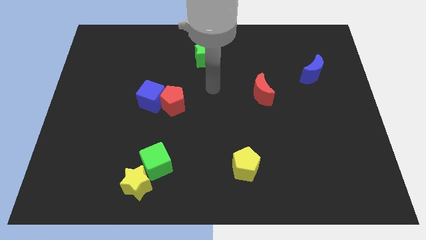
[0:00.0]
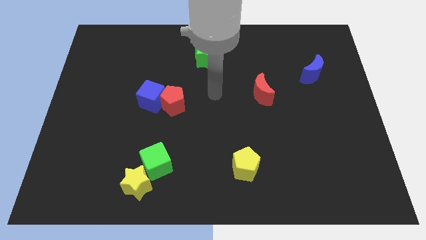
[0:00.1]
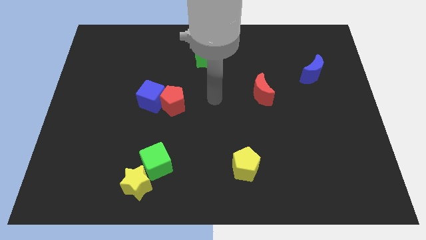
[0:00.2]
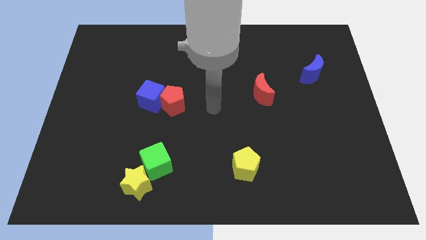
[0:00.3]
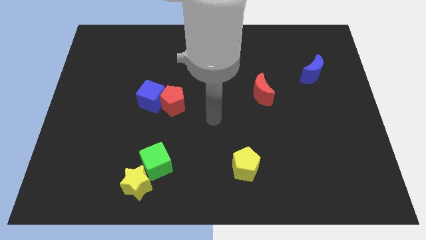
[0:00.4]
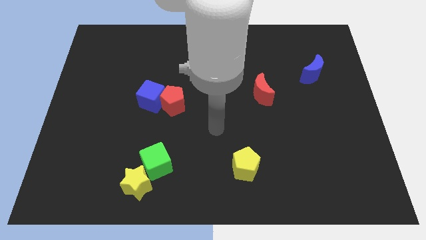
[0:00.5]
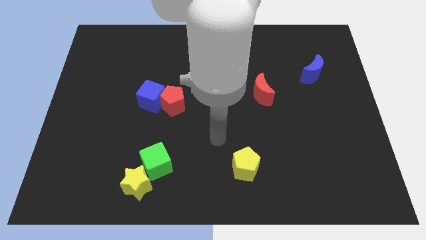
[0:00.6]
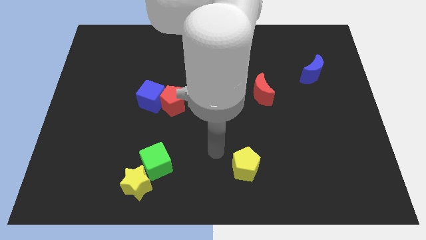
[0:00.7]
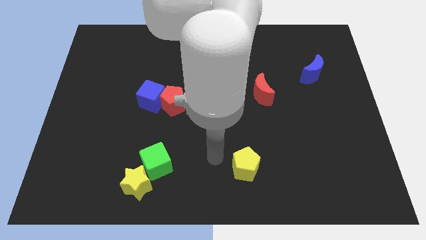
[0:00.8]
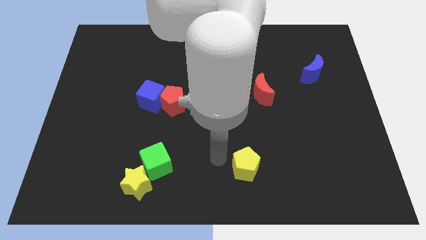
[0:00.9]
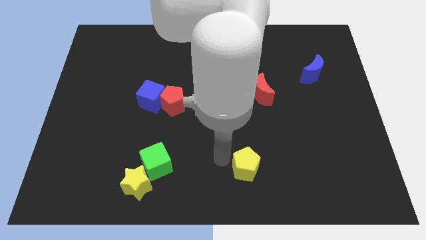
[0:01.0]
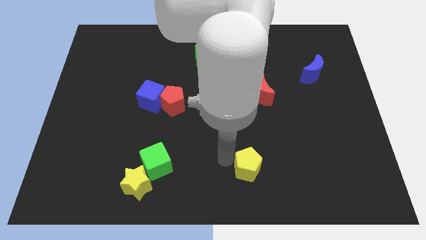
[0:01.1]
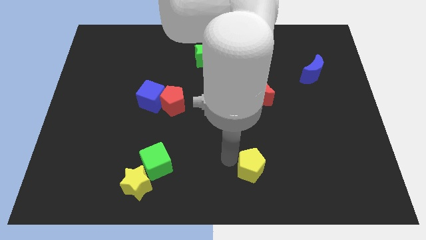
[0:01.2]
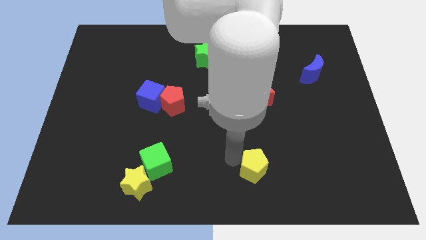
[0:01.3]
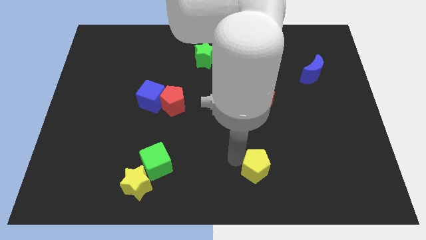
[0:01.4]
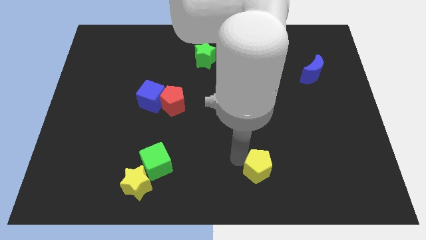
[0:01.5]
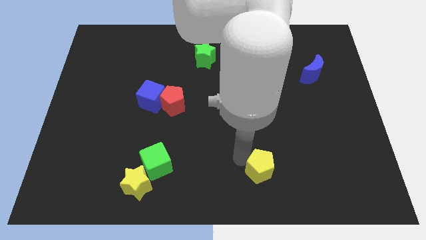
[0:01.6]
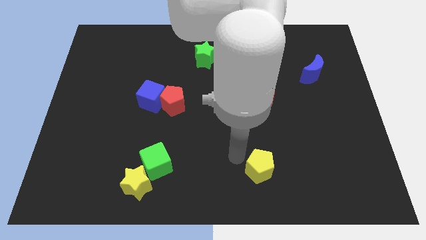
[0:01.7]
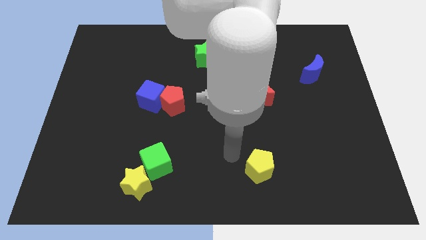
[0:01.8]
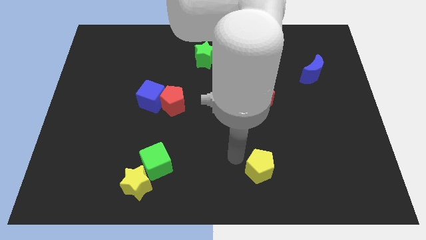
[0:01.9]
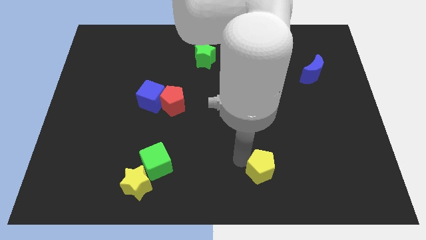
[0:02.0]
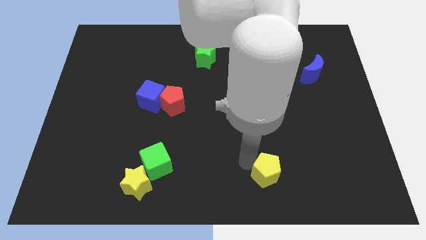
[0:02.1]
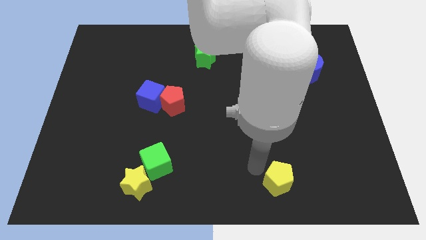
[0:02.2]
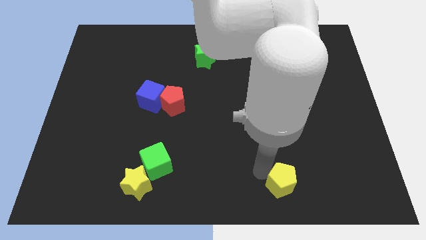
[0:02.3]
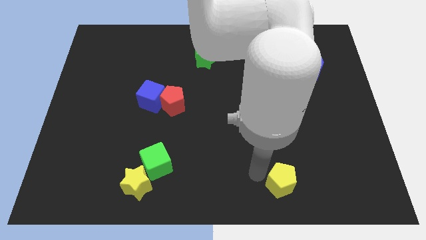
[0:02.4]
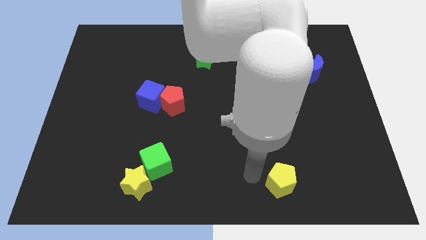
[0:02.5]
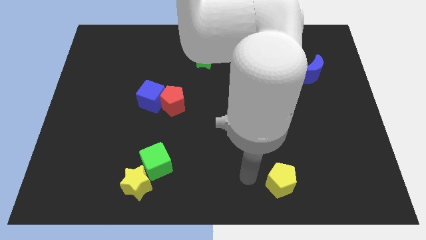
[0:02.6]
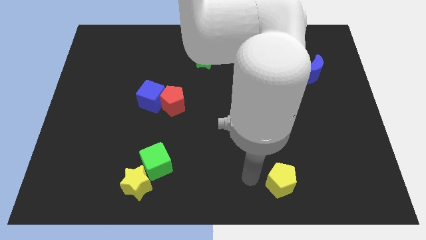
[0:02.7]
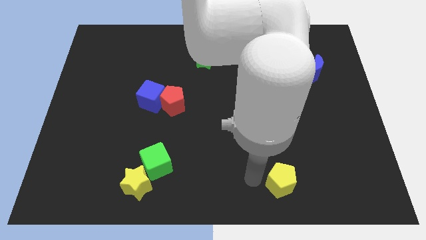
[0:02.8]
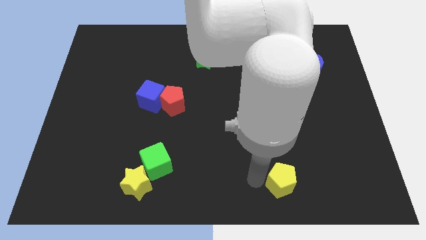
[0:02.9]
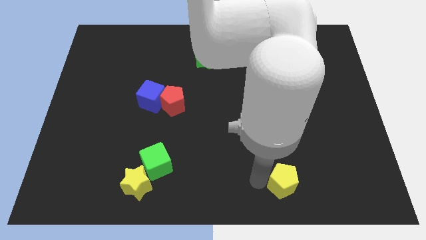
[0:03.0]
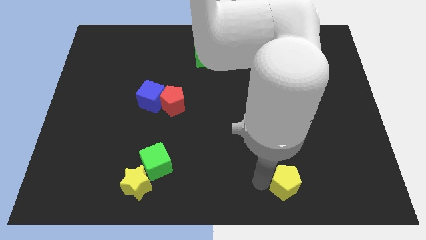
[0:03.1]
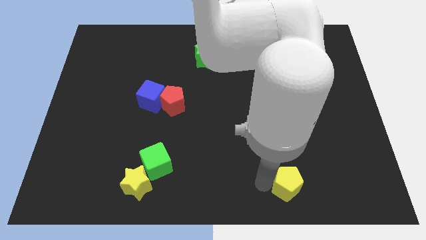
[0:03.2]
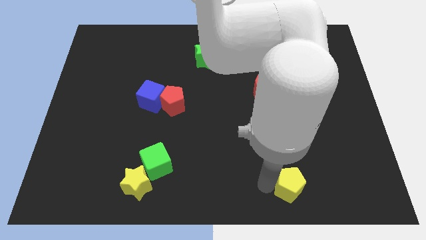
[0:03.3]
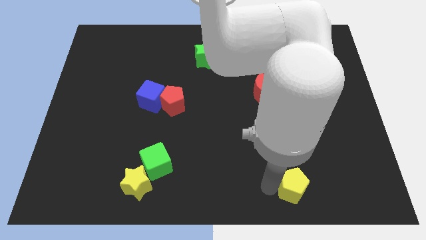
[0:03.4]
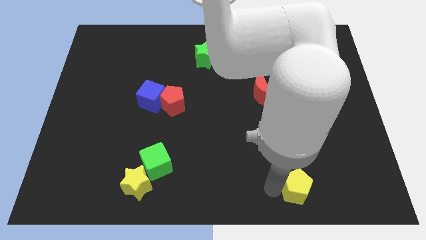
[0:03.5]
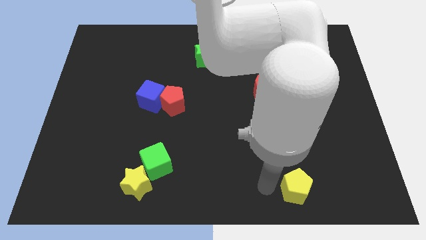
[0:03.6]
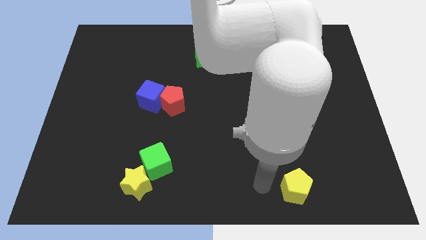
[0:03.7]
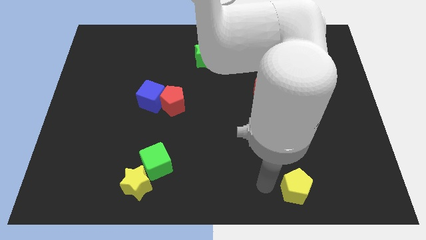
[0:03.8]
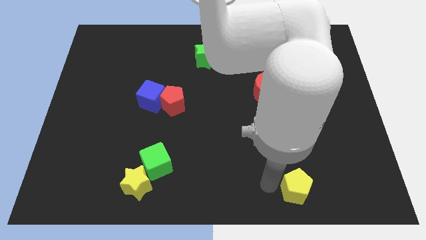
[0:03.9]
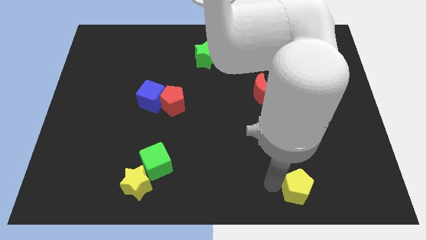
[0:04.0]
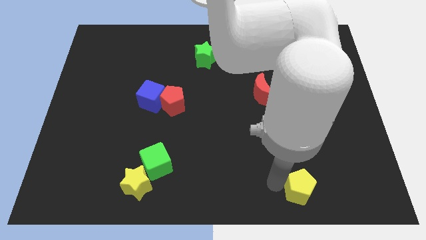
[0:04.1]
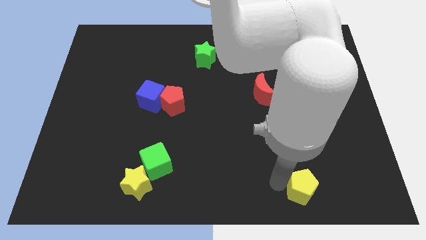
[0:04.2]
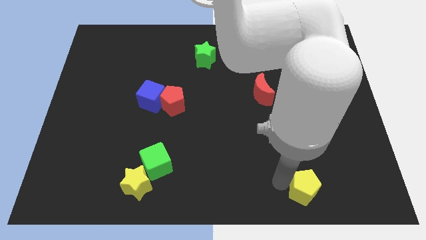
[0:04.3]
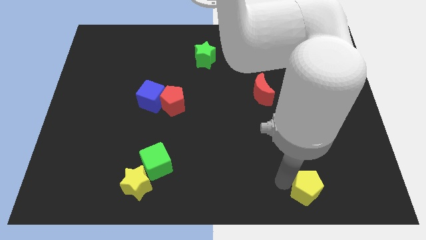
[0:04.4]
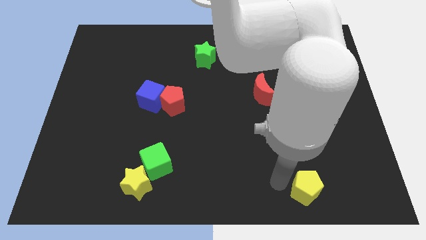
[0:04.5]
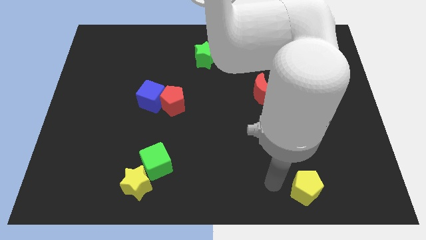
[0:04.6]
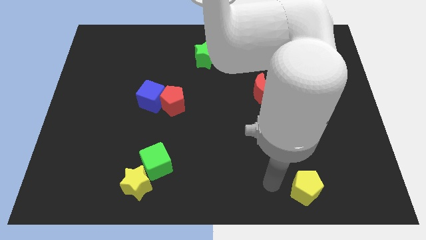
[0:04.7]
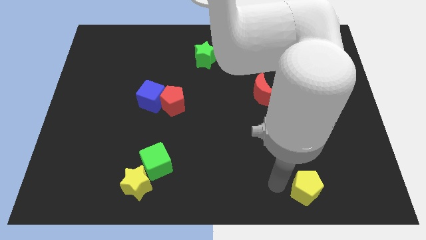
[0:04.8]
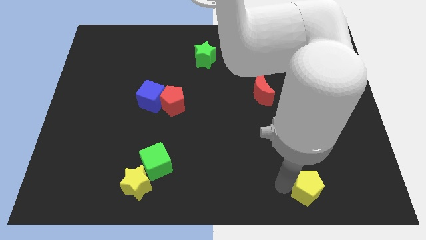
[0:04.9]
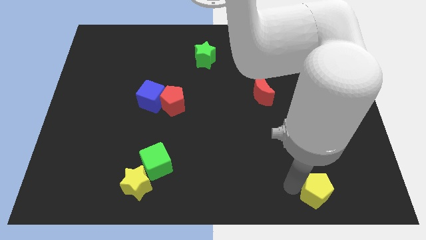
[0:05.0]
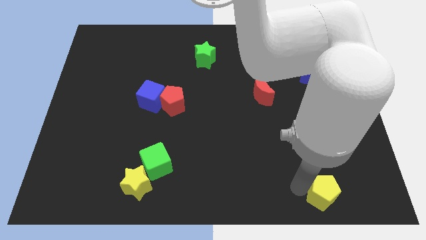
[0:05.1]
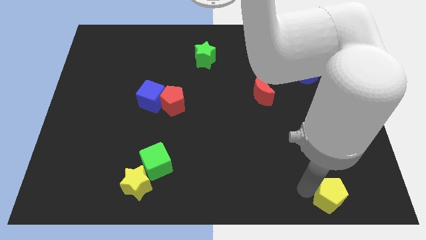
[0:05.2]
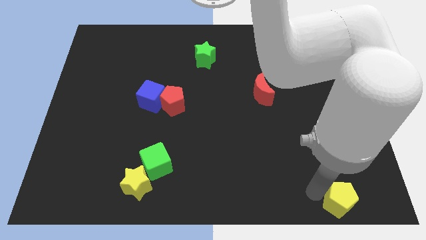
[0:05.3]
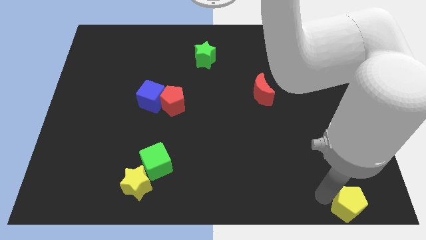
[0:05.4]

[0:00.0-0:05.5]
move the yellow pentagon to the lower right corner

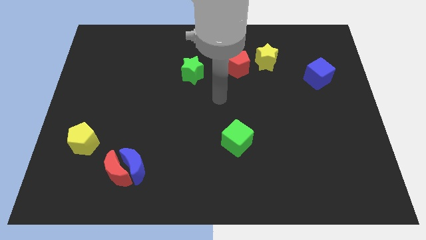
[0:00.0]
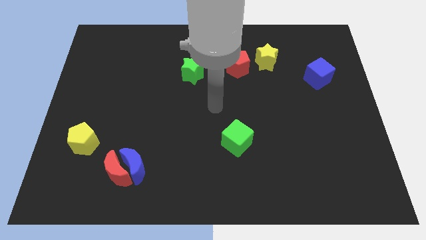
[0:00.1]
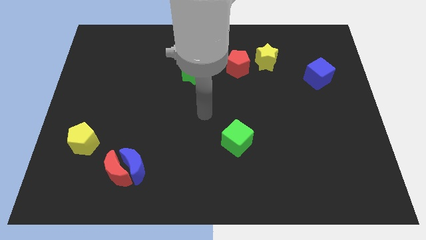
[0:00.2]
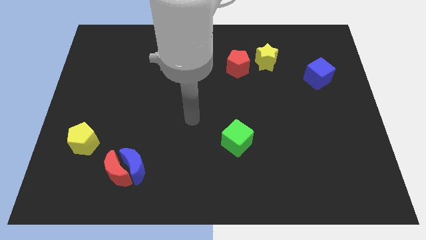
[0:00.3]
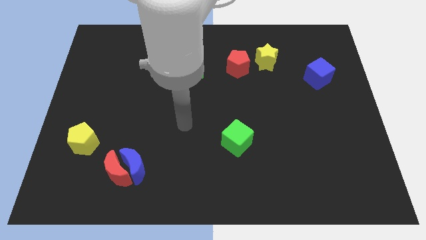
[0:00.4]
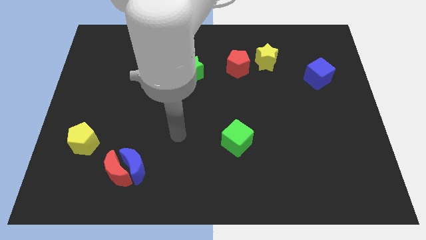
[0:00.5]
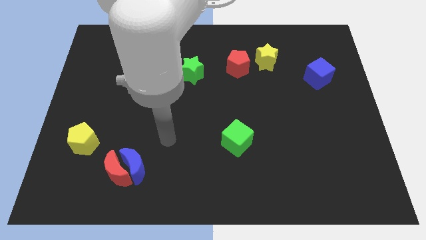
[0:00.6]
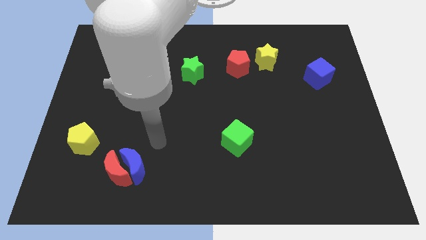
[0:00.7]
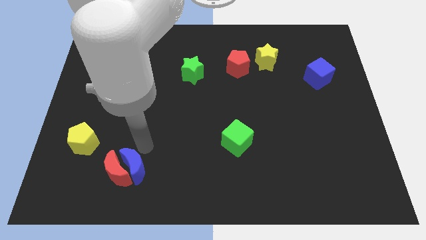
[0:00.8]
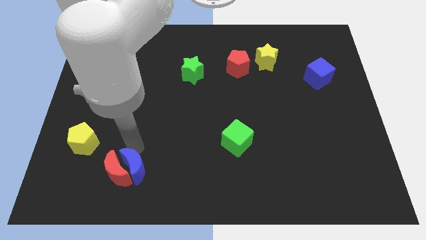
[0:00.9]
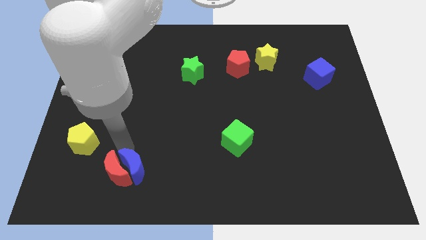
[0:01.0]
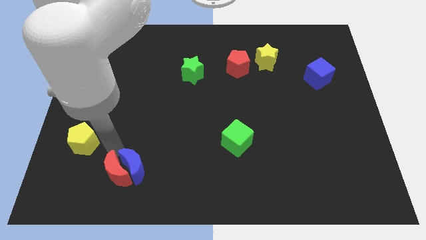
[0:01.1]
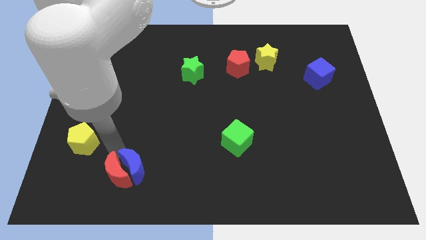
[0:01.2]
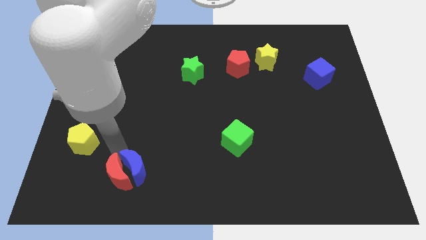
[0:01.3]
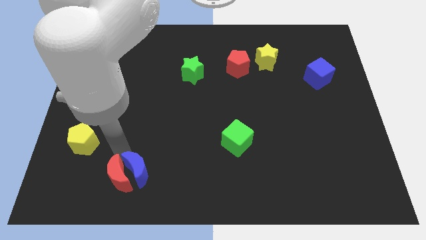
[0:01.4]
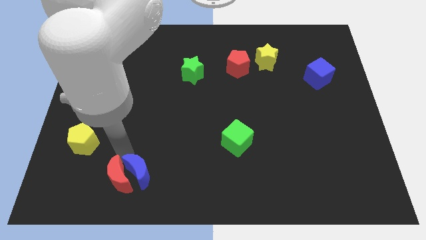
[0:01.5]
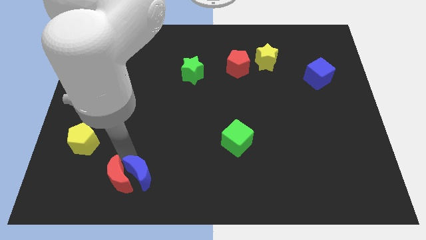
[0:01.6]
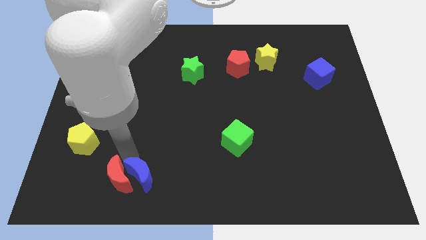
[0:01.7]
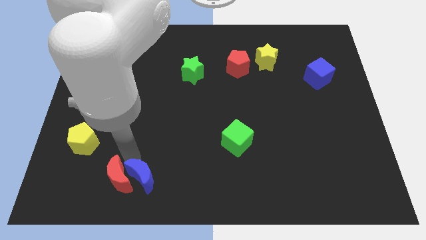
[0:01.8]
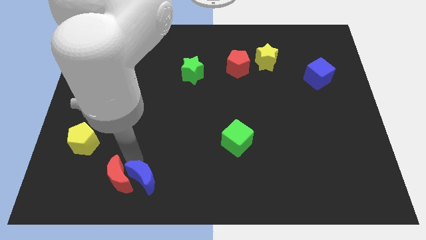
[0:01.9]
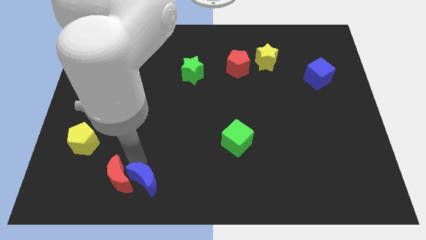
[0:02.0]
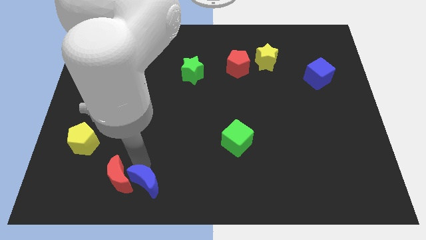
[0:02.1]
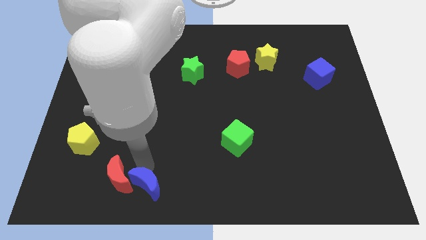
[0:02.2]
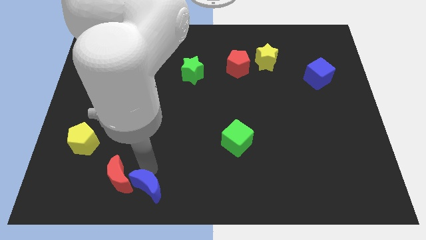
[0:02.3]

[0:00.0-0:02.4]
move the blue moon to the bottom side
